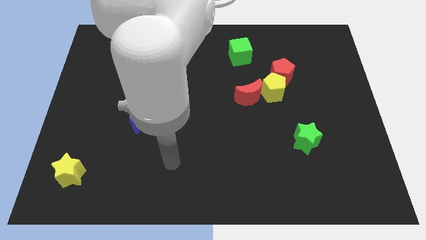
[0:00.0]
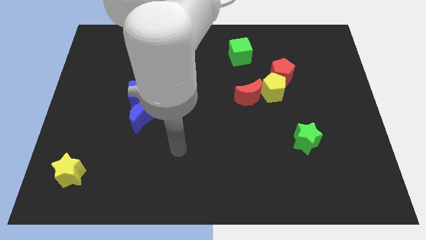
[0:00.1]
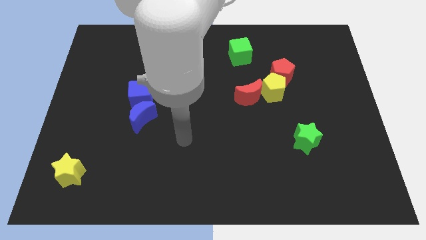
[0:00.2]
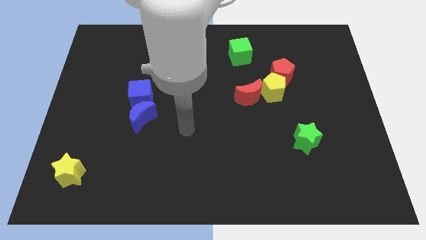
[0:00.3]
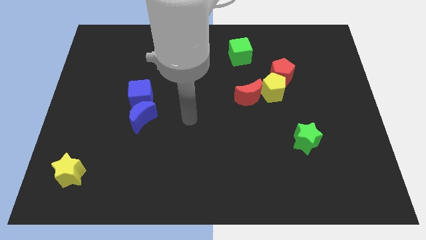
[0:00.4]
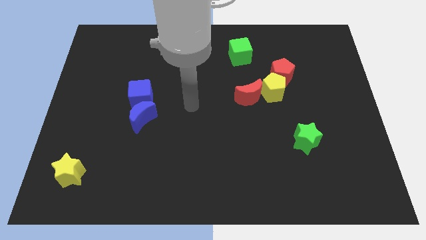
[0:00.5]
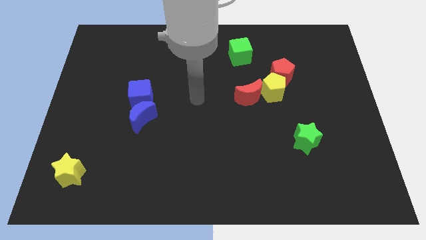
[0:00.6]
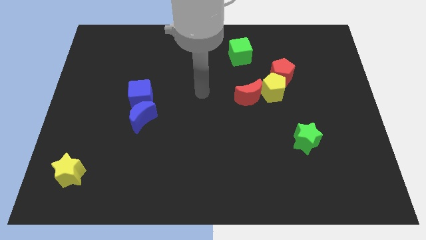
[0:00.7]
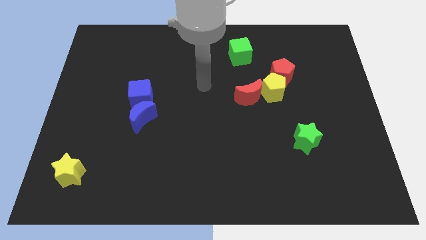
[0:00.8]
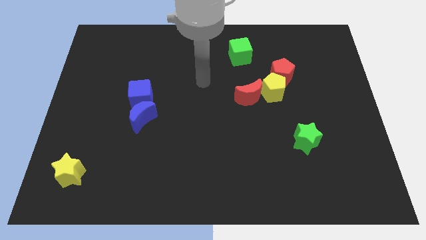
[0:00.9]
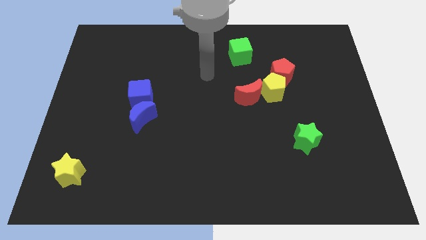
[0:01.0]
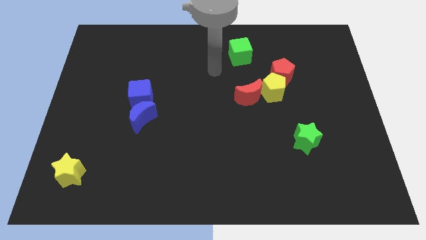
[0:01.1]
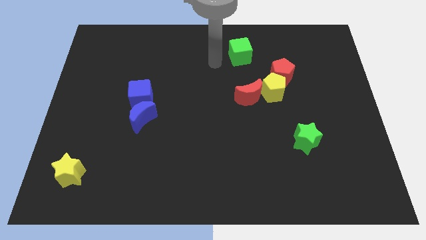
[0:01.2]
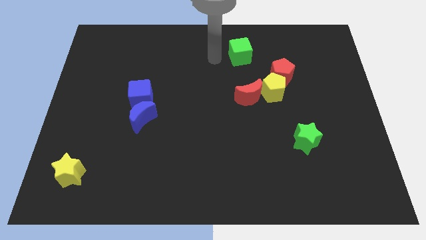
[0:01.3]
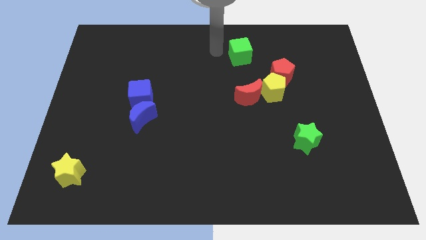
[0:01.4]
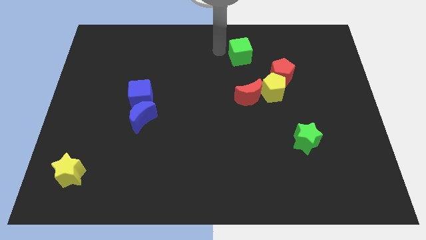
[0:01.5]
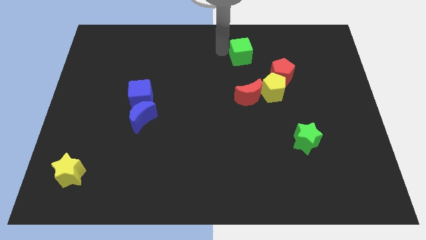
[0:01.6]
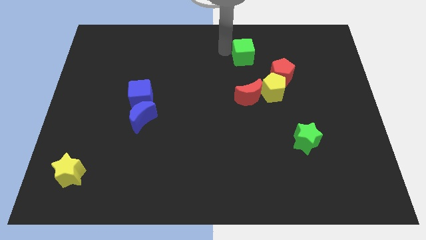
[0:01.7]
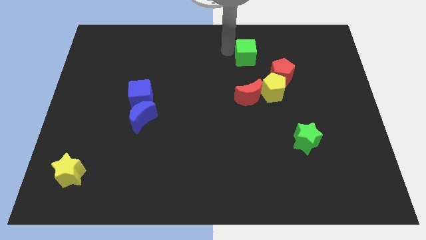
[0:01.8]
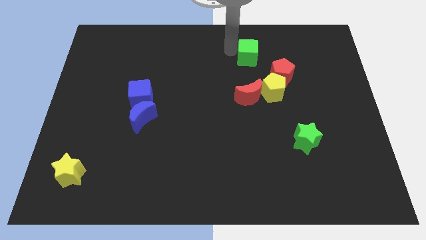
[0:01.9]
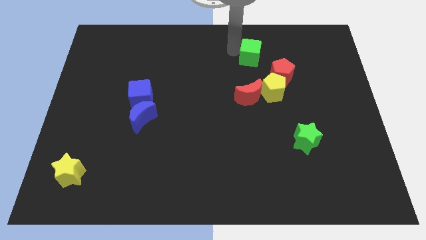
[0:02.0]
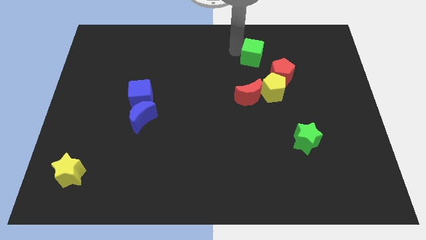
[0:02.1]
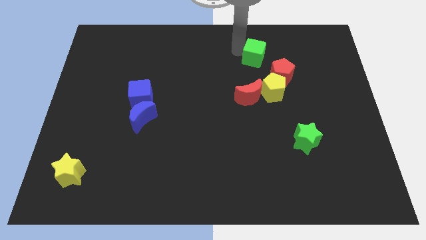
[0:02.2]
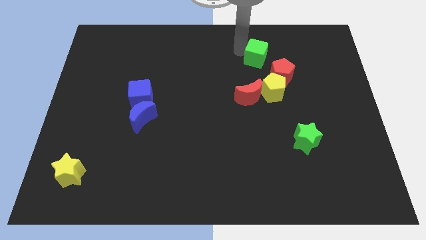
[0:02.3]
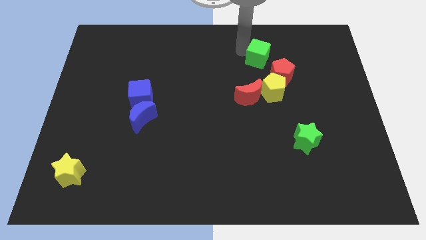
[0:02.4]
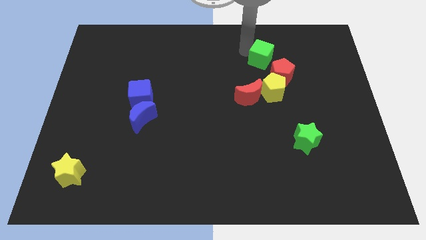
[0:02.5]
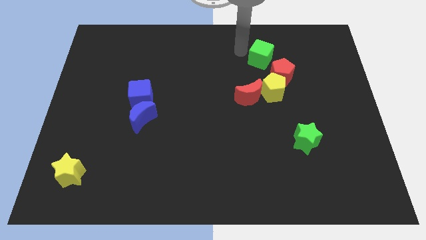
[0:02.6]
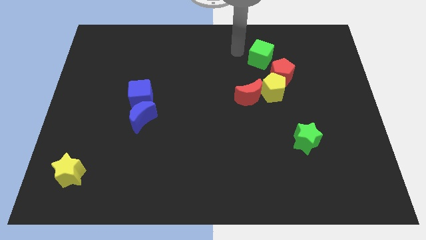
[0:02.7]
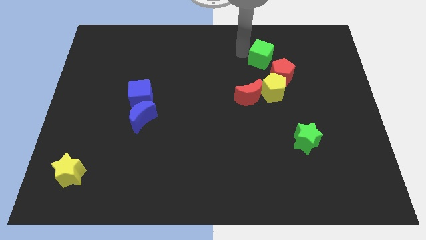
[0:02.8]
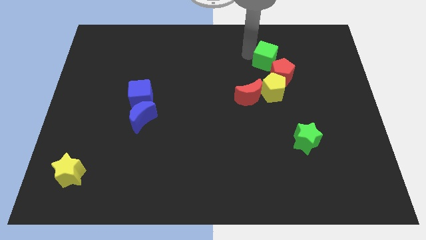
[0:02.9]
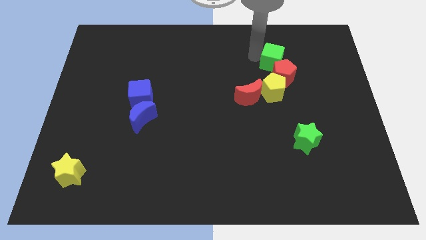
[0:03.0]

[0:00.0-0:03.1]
slide the green cube downwards and right somewhat

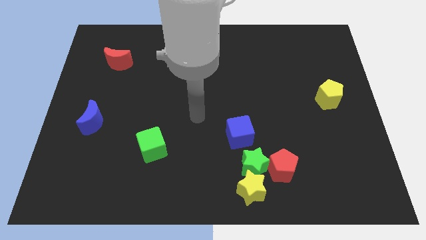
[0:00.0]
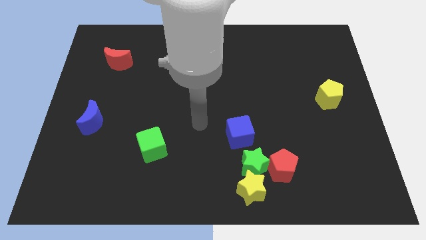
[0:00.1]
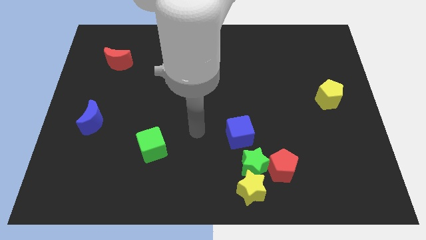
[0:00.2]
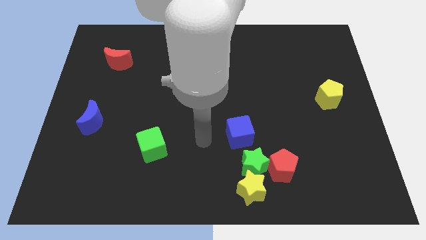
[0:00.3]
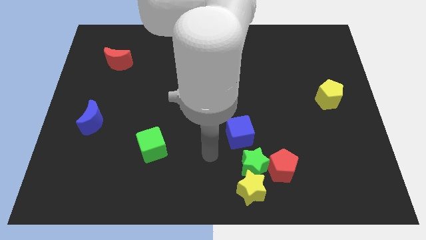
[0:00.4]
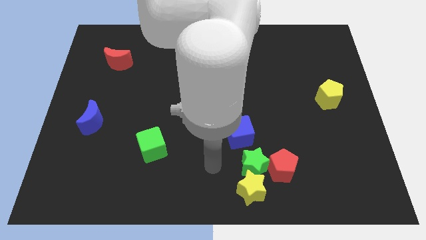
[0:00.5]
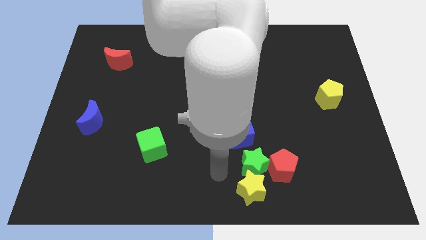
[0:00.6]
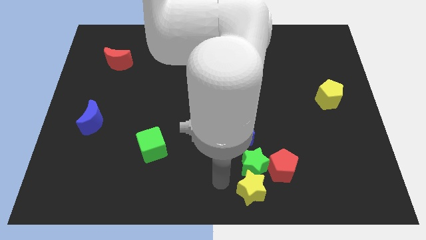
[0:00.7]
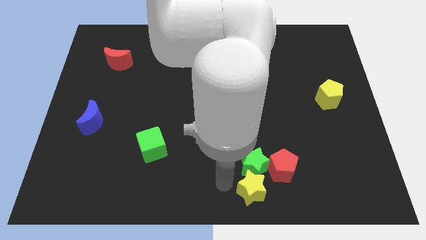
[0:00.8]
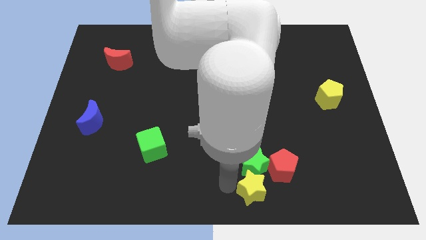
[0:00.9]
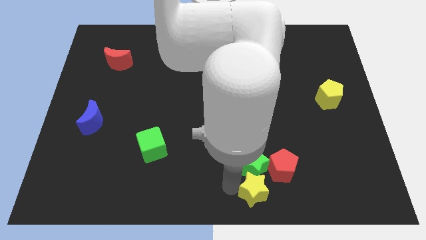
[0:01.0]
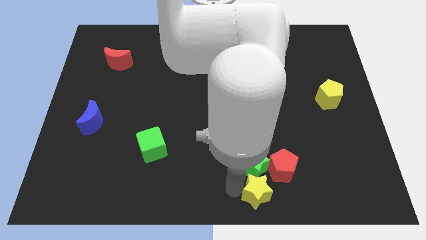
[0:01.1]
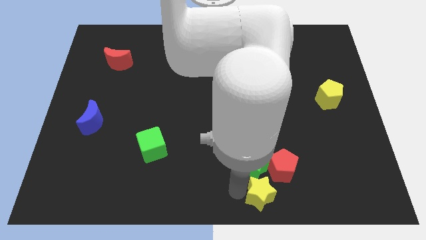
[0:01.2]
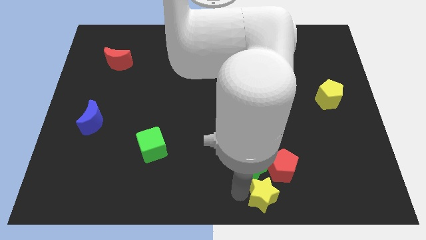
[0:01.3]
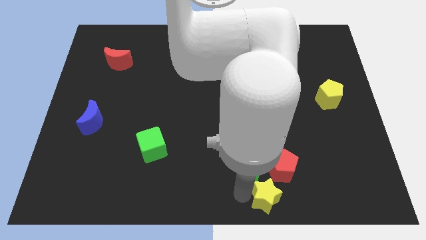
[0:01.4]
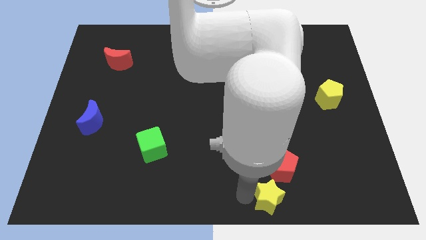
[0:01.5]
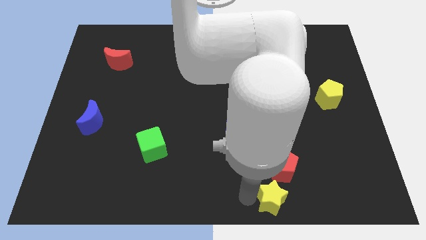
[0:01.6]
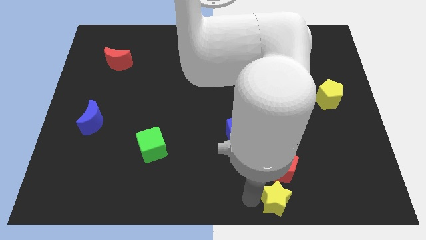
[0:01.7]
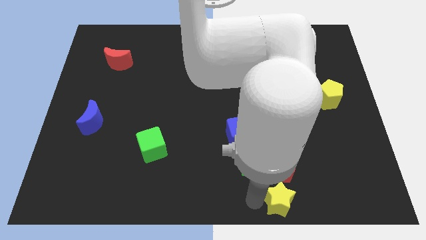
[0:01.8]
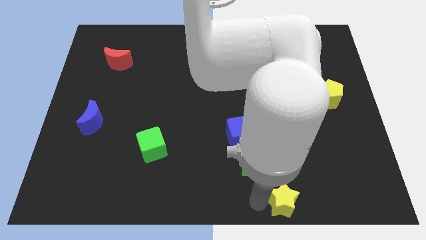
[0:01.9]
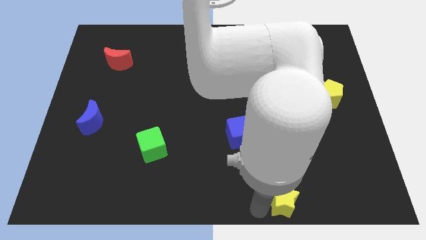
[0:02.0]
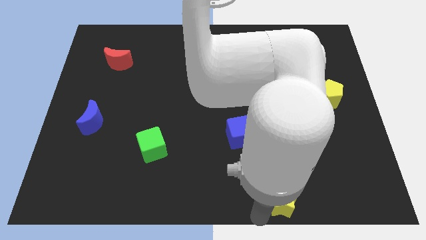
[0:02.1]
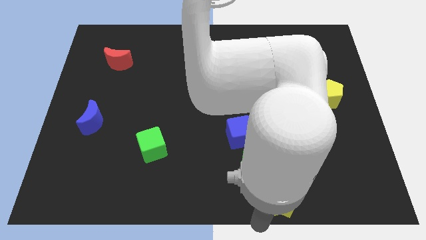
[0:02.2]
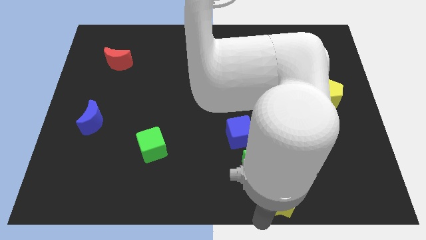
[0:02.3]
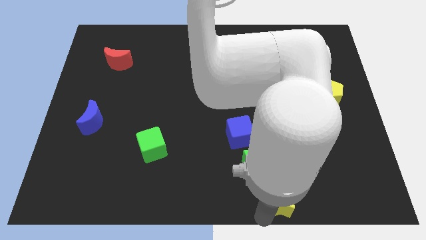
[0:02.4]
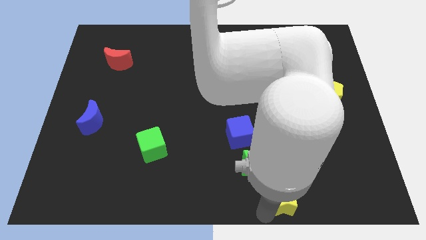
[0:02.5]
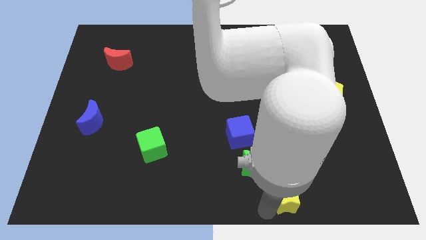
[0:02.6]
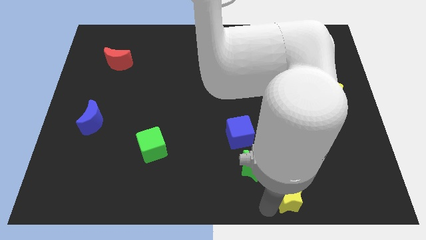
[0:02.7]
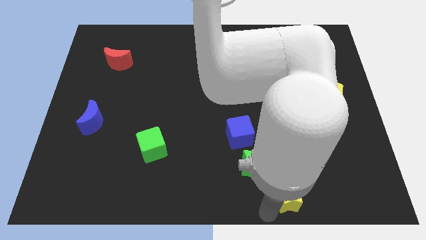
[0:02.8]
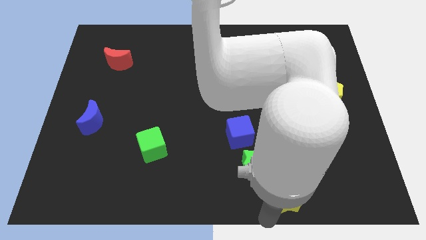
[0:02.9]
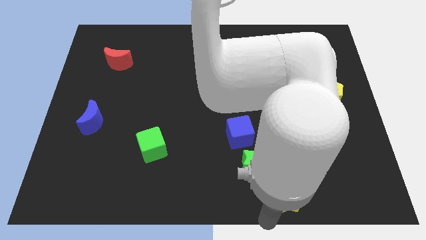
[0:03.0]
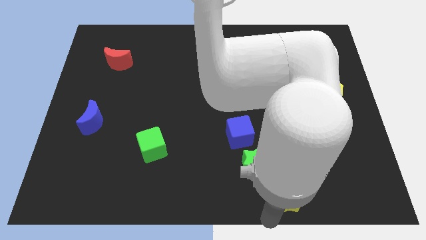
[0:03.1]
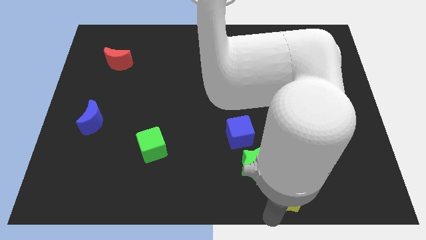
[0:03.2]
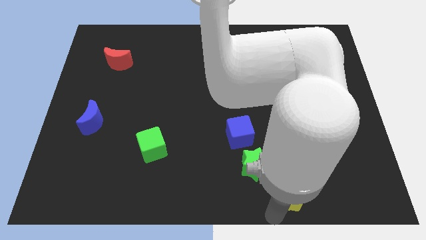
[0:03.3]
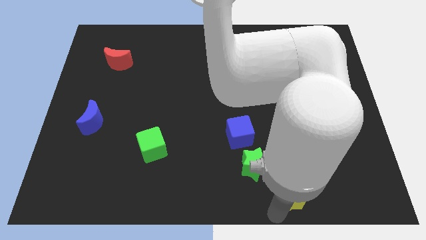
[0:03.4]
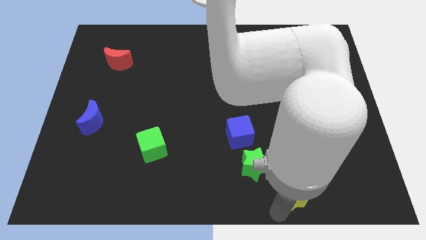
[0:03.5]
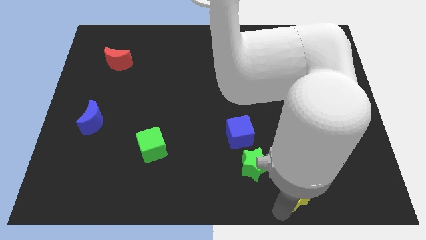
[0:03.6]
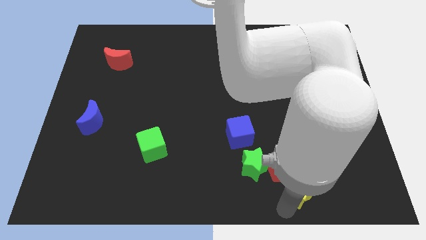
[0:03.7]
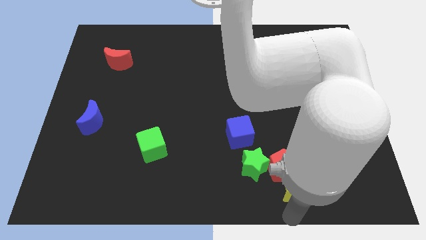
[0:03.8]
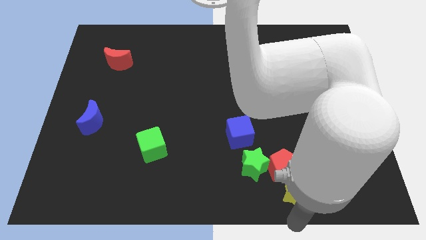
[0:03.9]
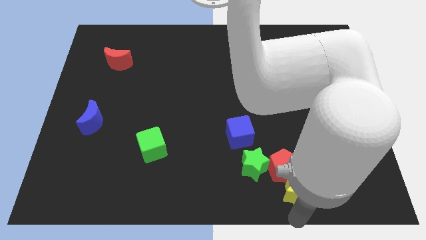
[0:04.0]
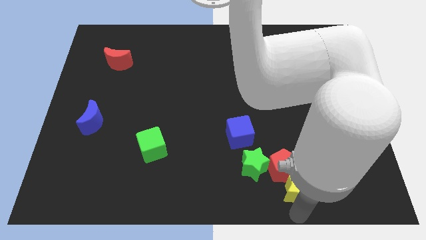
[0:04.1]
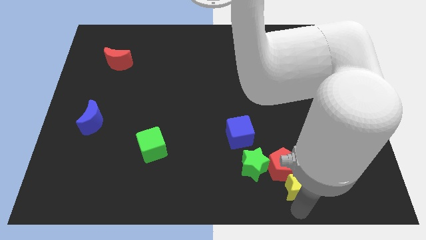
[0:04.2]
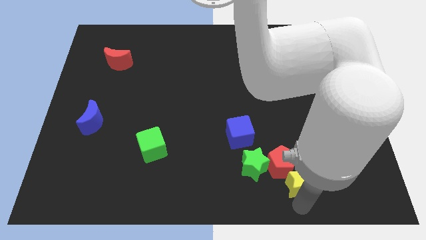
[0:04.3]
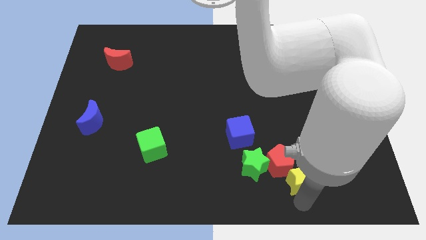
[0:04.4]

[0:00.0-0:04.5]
move the yellow star somewhat upwards and right diagonally

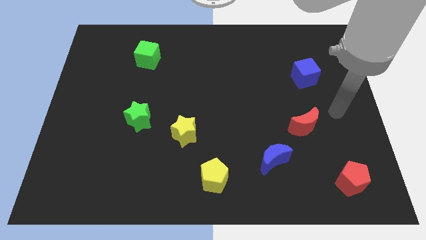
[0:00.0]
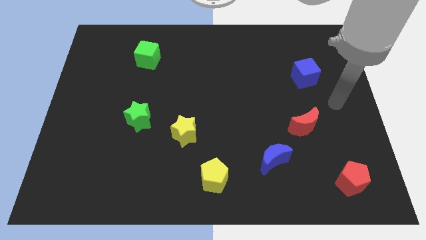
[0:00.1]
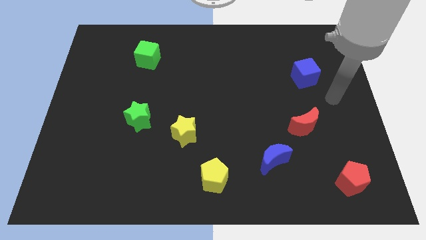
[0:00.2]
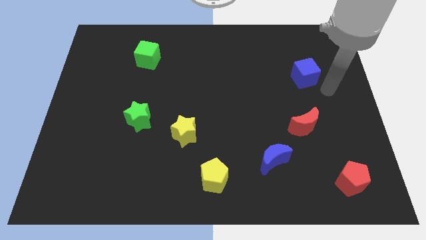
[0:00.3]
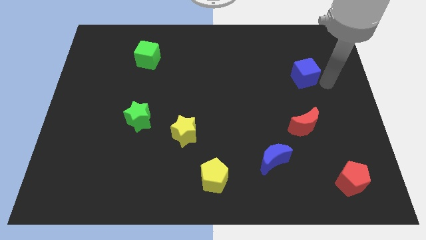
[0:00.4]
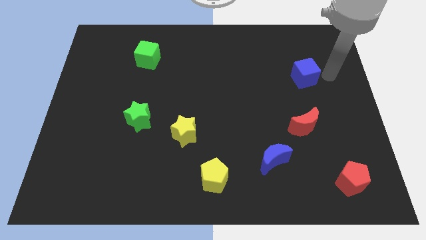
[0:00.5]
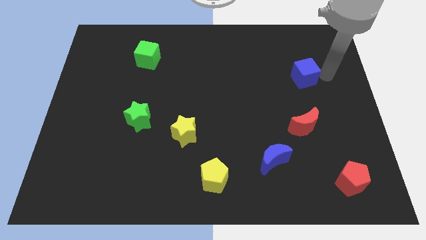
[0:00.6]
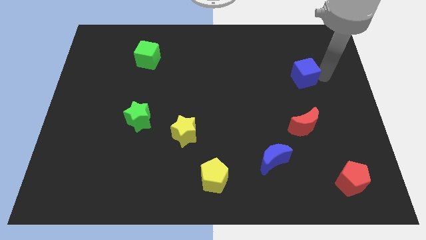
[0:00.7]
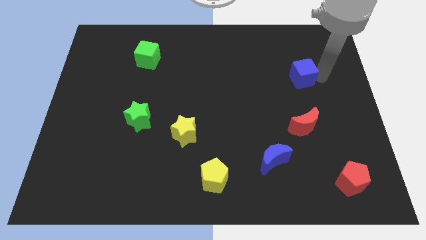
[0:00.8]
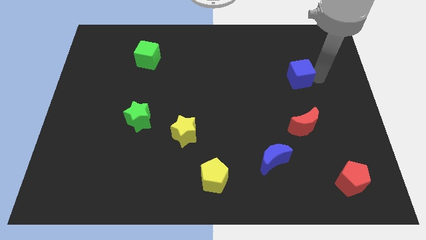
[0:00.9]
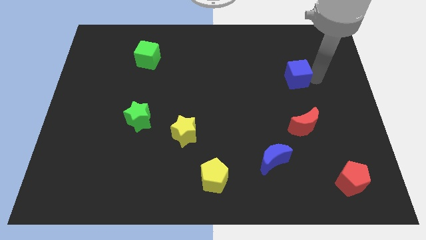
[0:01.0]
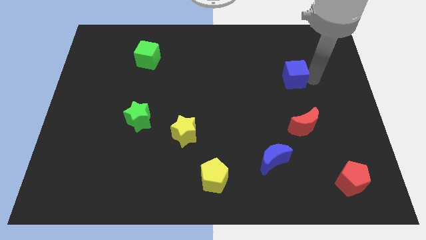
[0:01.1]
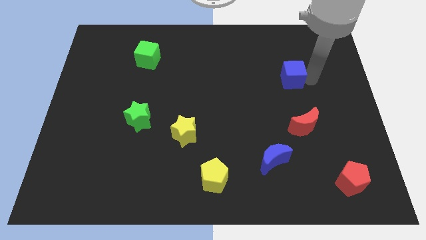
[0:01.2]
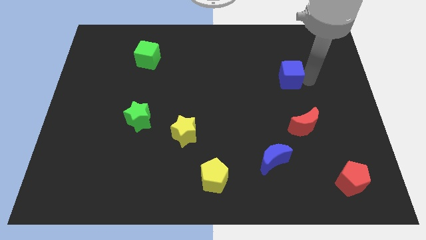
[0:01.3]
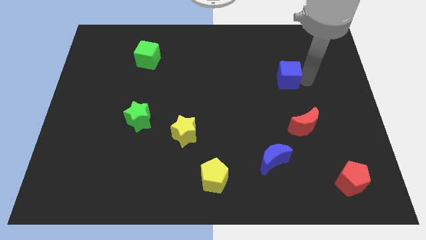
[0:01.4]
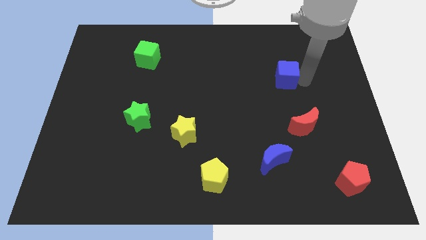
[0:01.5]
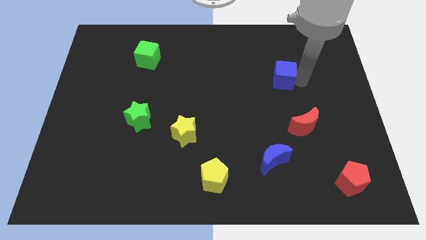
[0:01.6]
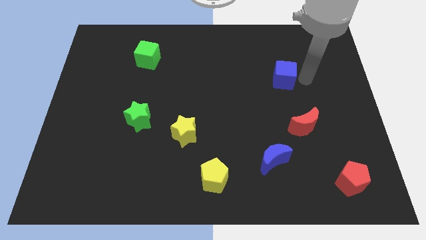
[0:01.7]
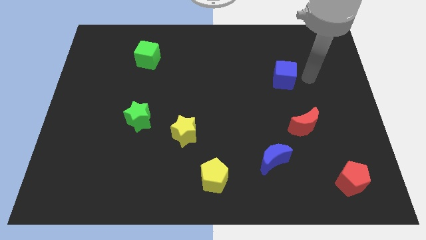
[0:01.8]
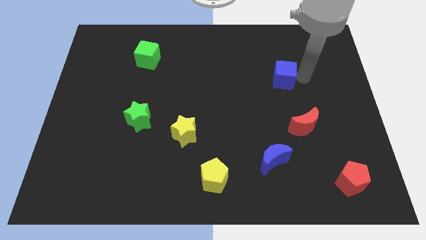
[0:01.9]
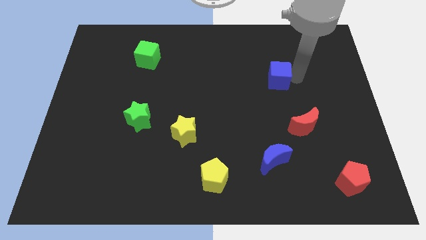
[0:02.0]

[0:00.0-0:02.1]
push the blue cube somewhat to the left
